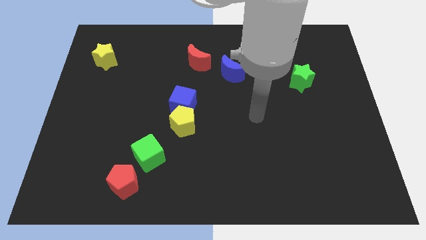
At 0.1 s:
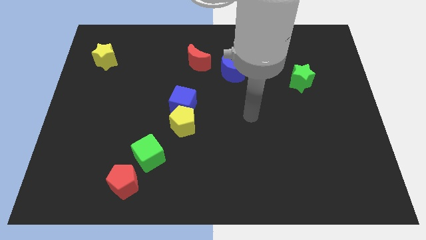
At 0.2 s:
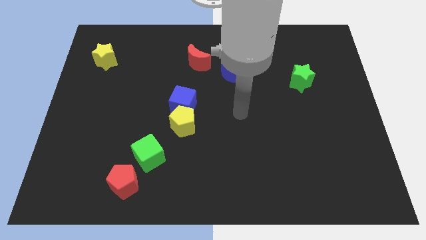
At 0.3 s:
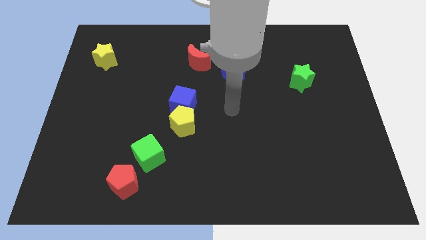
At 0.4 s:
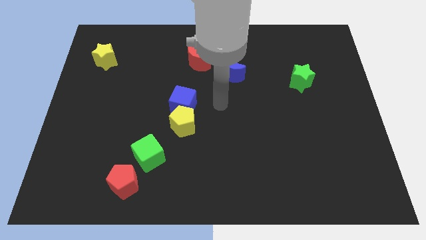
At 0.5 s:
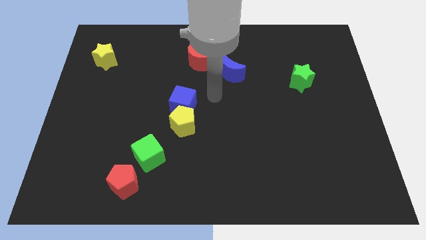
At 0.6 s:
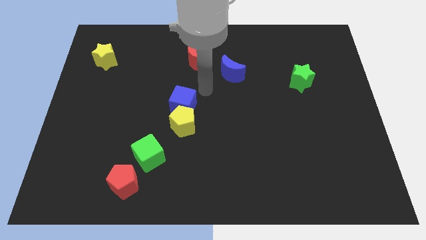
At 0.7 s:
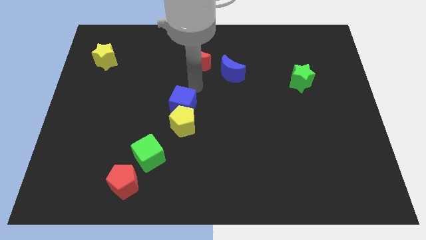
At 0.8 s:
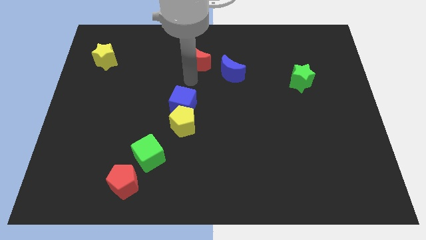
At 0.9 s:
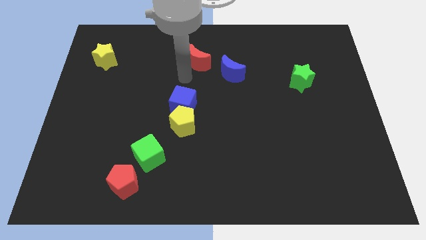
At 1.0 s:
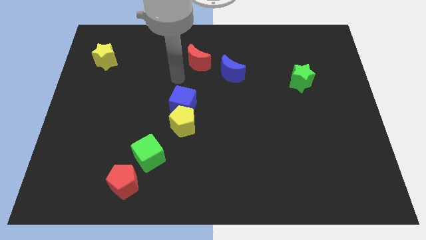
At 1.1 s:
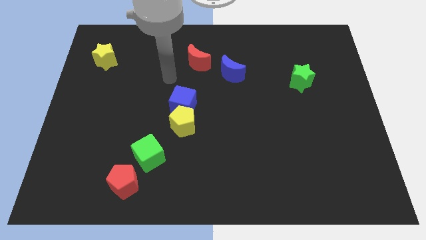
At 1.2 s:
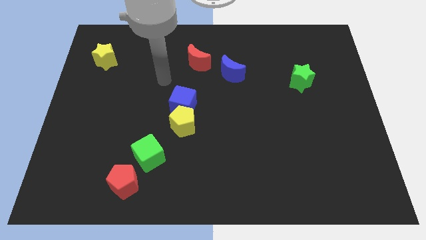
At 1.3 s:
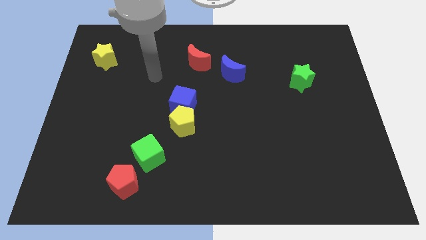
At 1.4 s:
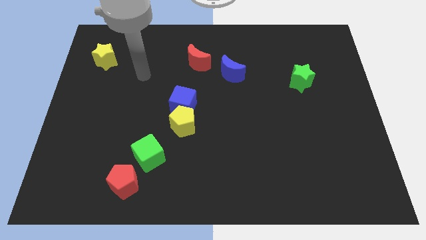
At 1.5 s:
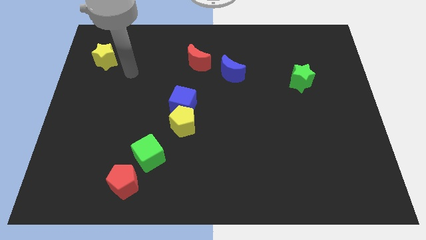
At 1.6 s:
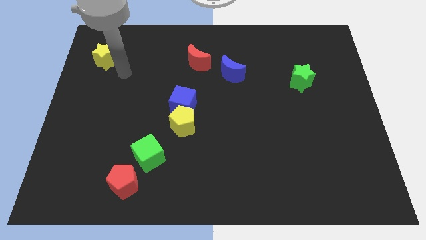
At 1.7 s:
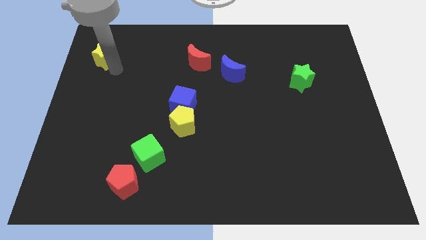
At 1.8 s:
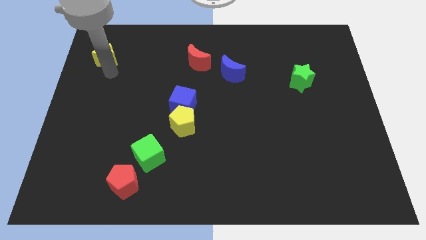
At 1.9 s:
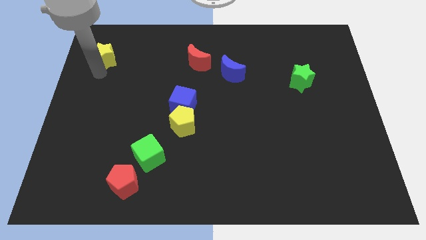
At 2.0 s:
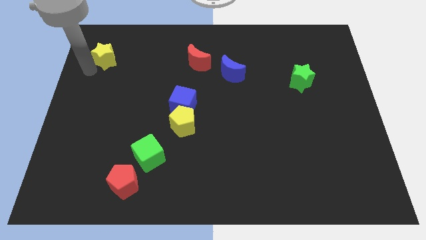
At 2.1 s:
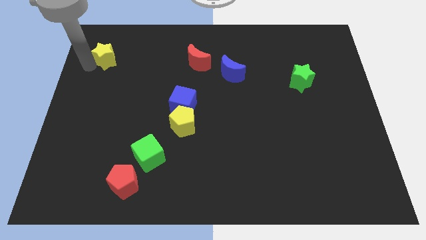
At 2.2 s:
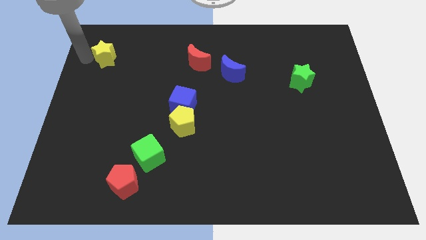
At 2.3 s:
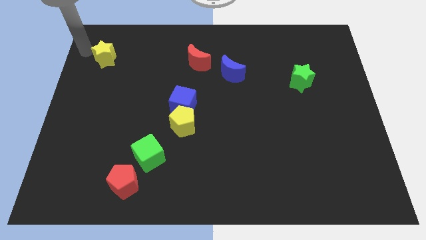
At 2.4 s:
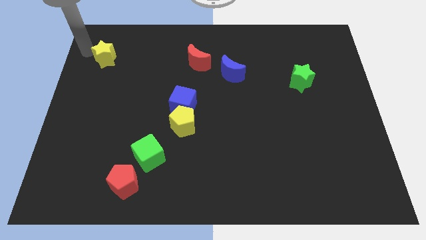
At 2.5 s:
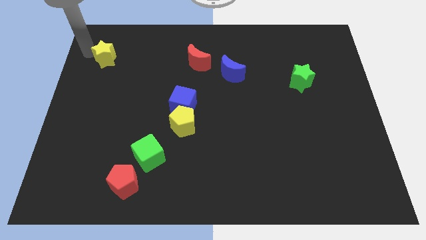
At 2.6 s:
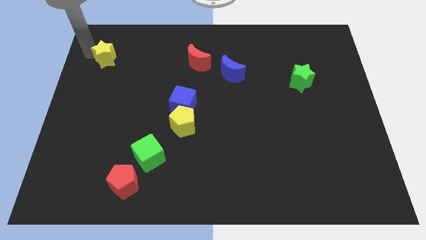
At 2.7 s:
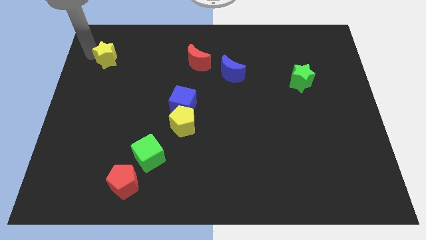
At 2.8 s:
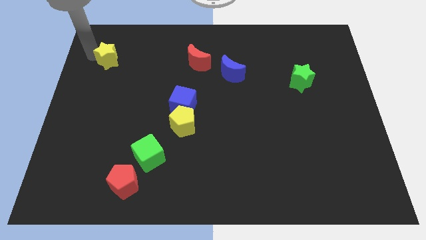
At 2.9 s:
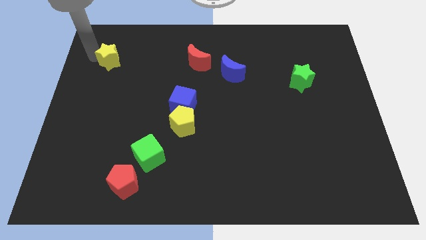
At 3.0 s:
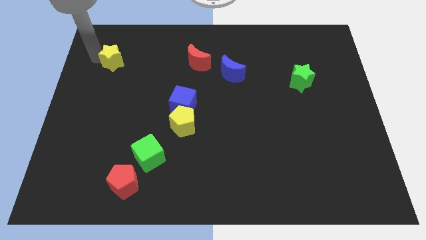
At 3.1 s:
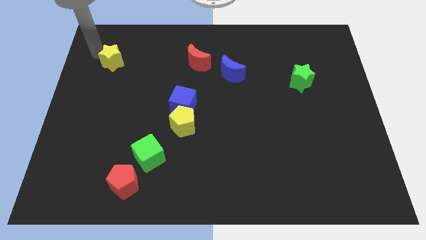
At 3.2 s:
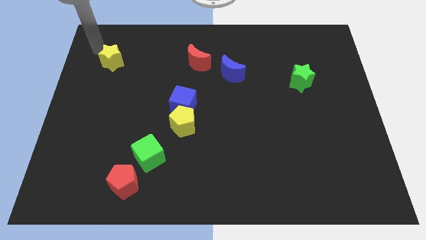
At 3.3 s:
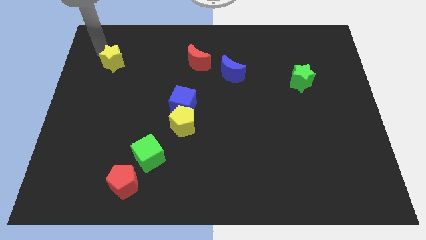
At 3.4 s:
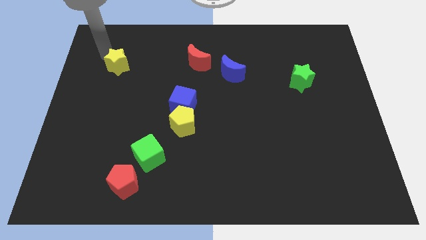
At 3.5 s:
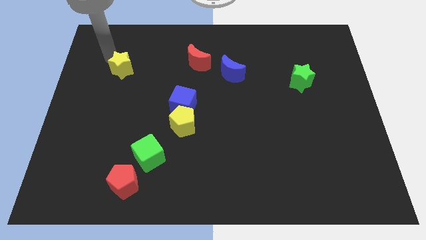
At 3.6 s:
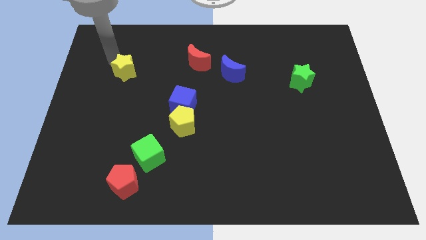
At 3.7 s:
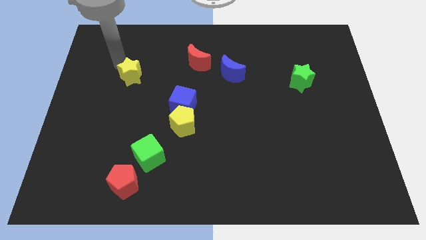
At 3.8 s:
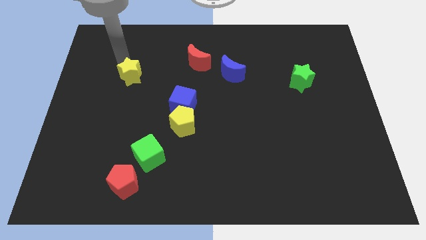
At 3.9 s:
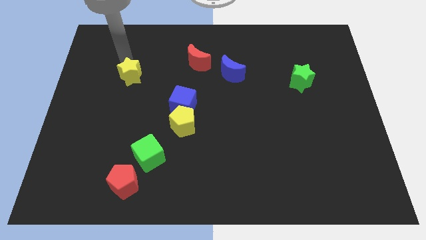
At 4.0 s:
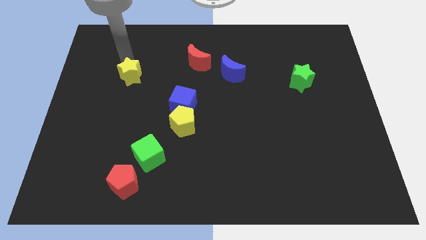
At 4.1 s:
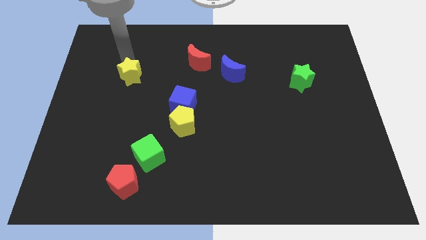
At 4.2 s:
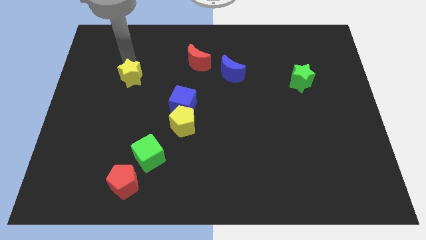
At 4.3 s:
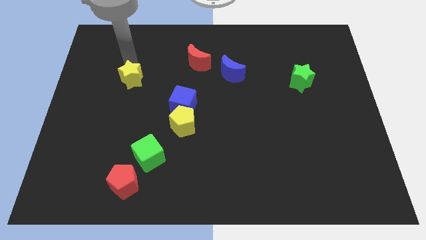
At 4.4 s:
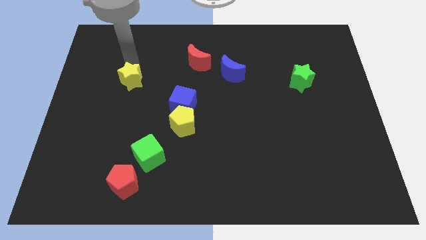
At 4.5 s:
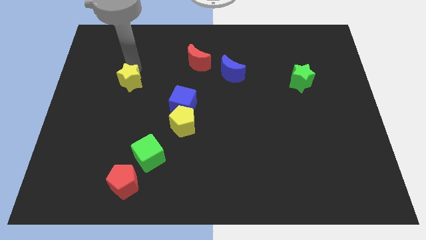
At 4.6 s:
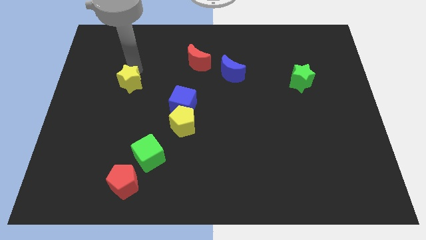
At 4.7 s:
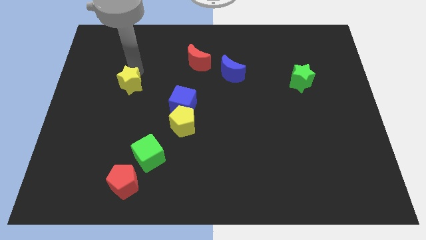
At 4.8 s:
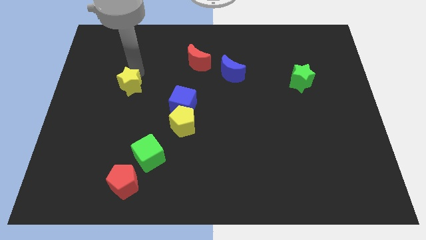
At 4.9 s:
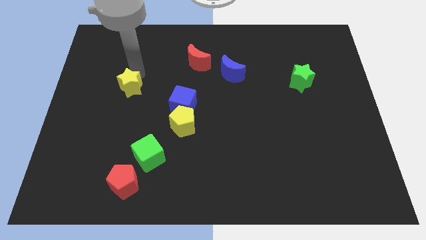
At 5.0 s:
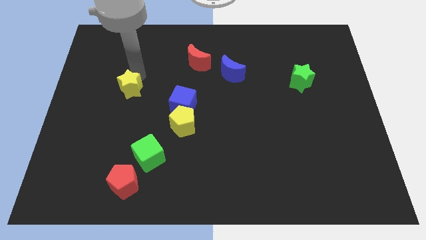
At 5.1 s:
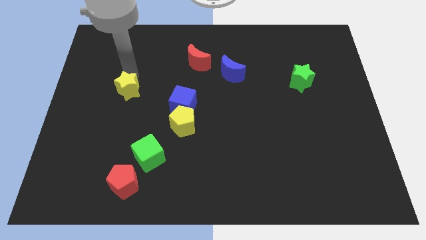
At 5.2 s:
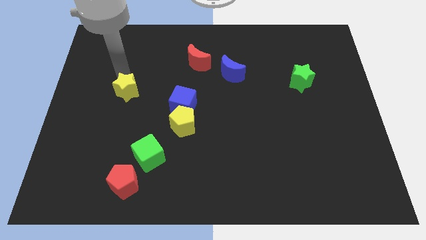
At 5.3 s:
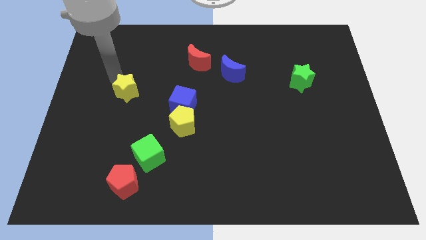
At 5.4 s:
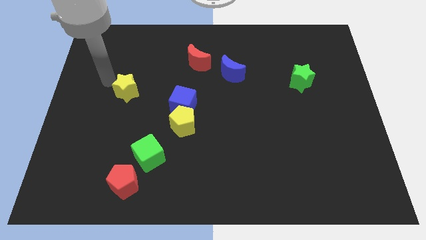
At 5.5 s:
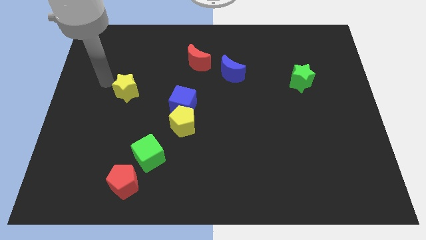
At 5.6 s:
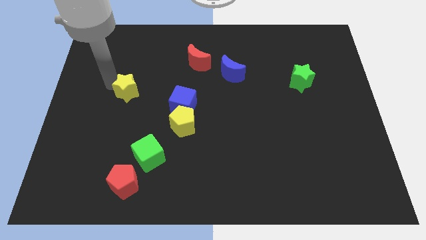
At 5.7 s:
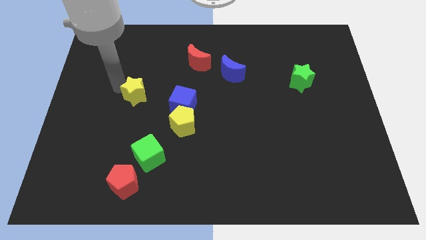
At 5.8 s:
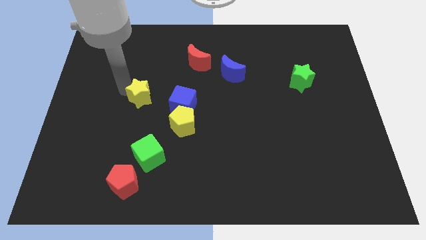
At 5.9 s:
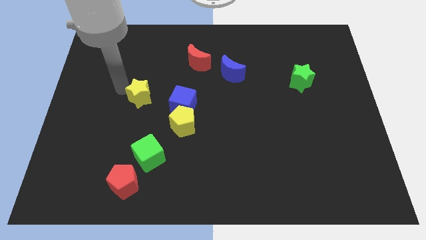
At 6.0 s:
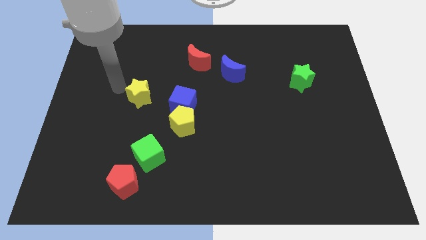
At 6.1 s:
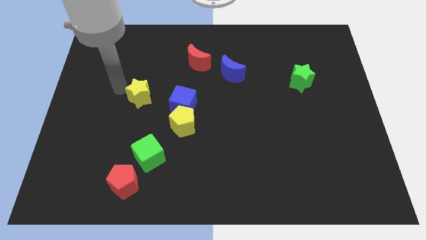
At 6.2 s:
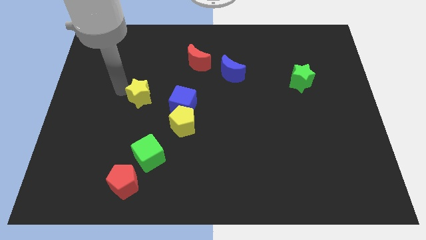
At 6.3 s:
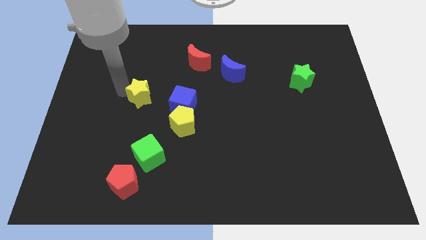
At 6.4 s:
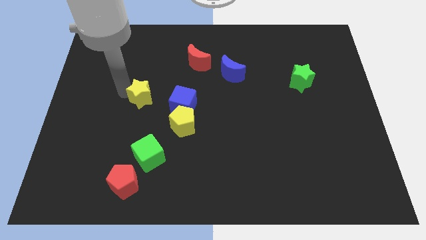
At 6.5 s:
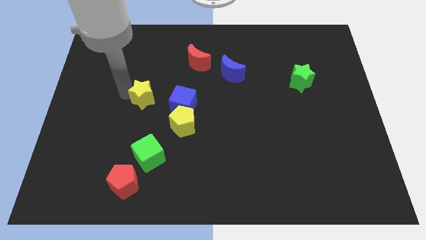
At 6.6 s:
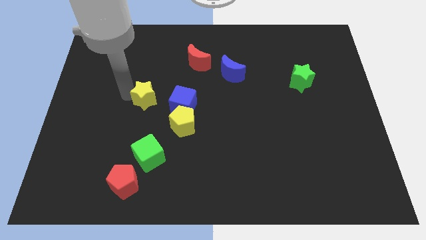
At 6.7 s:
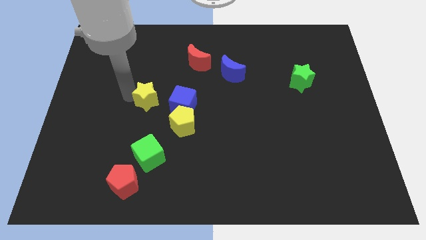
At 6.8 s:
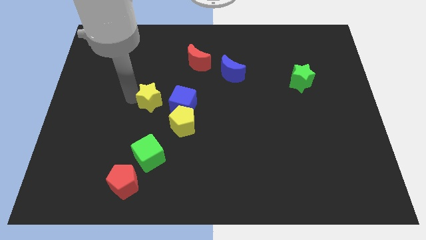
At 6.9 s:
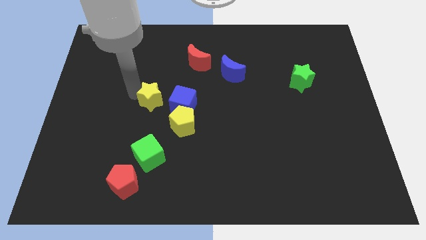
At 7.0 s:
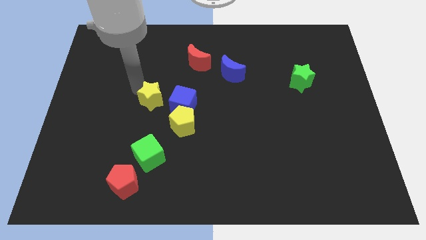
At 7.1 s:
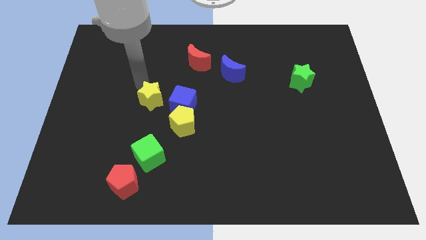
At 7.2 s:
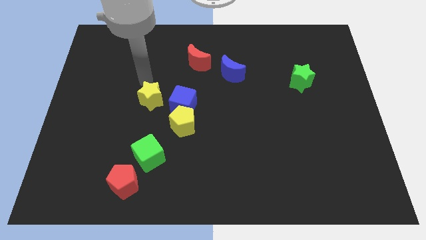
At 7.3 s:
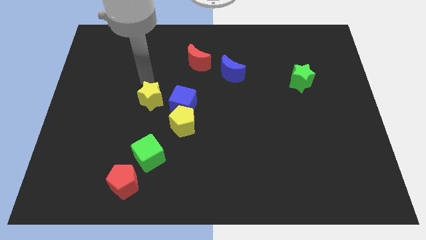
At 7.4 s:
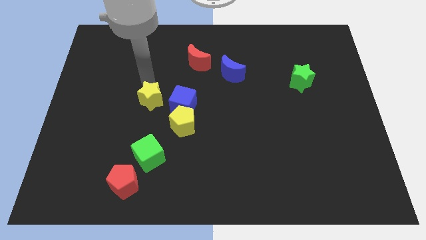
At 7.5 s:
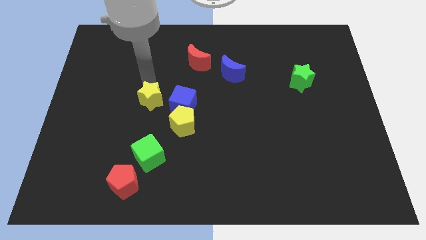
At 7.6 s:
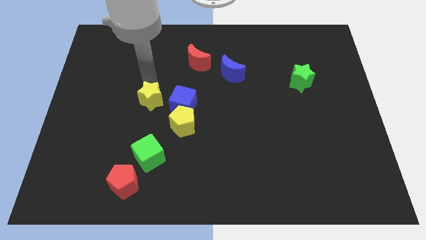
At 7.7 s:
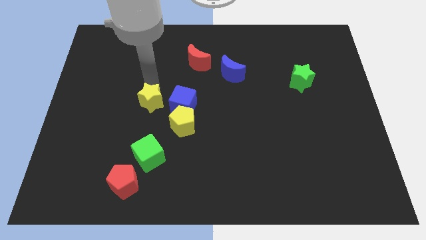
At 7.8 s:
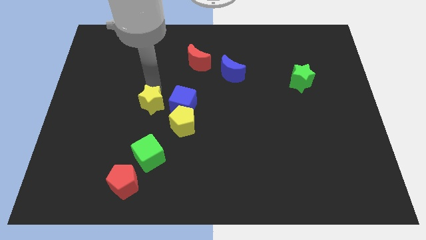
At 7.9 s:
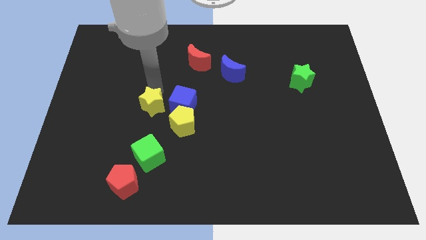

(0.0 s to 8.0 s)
slide the yellow star diagonally down and to the left of the blue cube
